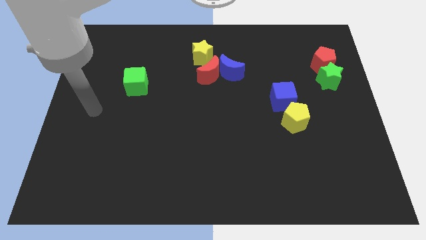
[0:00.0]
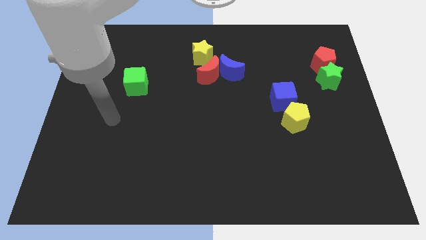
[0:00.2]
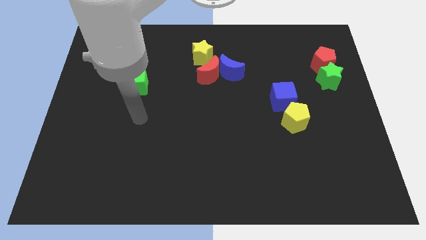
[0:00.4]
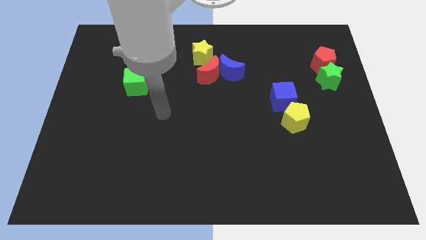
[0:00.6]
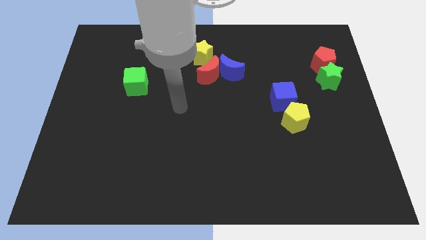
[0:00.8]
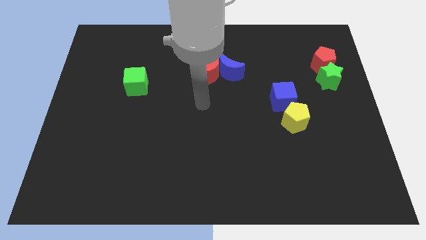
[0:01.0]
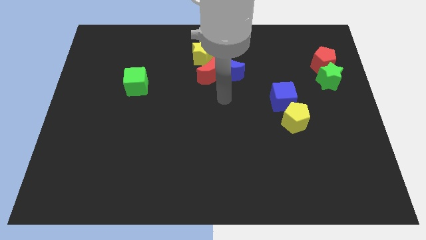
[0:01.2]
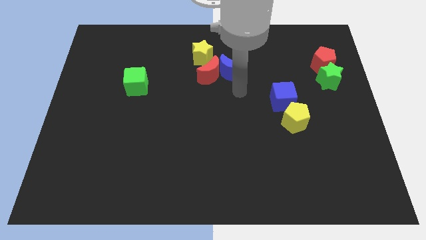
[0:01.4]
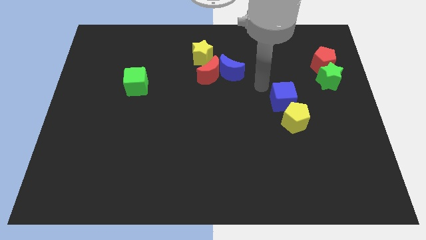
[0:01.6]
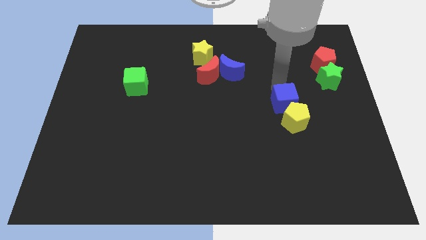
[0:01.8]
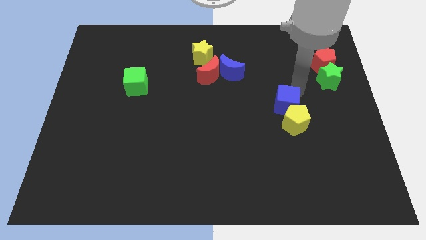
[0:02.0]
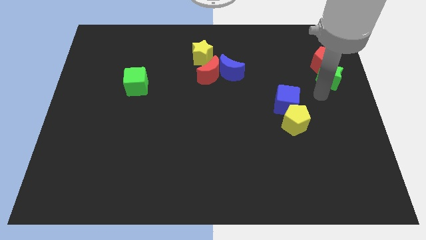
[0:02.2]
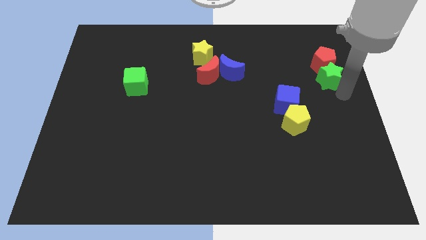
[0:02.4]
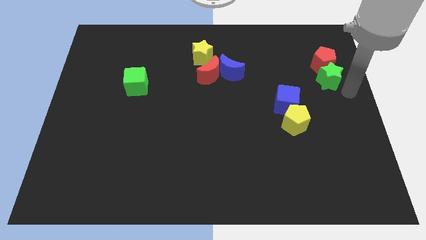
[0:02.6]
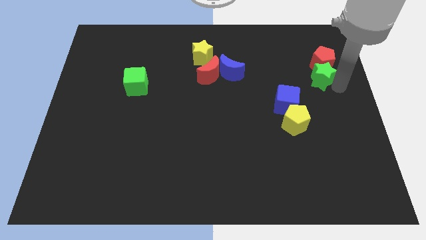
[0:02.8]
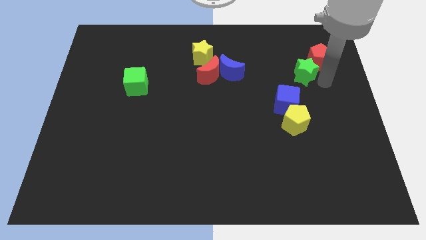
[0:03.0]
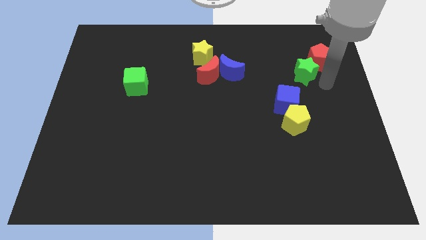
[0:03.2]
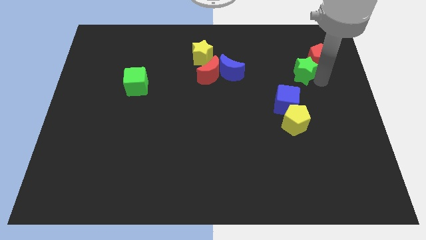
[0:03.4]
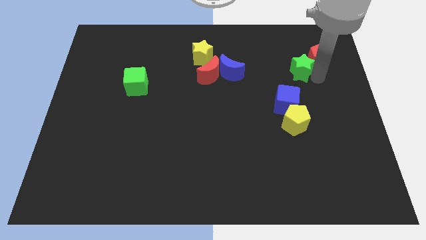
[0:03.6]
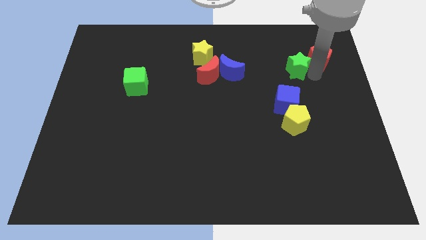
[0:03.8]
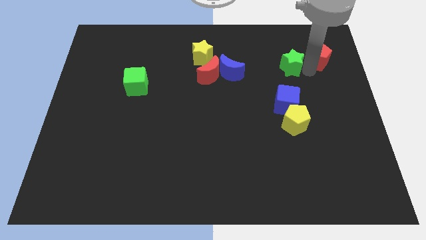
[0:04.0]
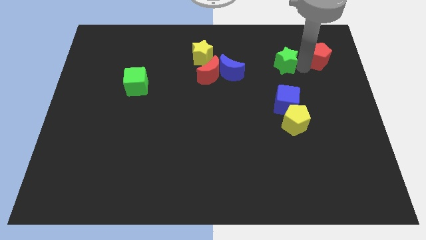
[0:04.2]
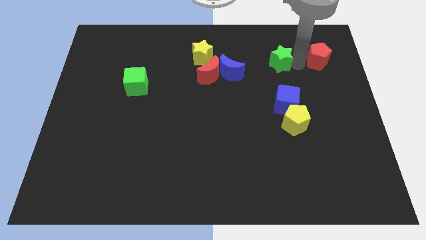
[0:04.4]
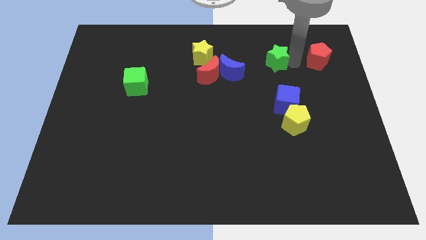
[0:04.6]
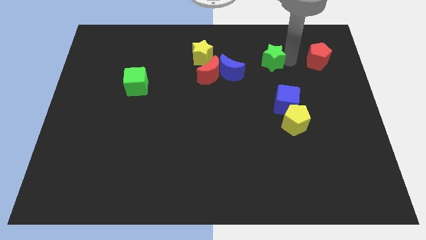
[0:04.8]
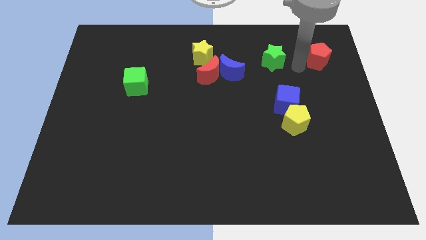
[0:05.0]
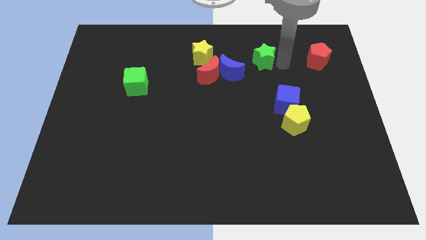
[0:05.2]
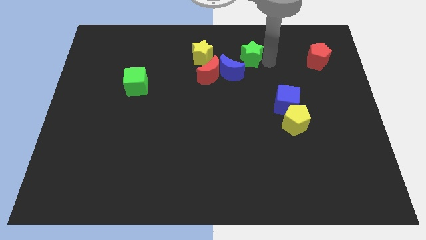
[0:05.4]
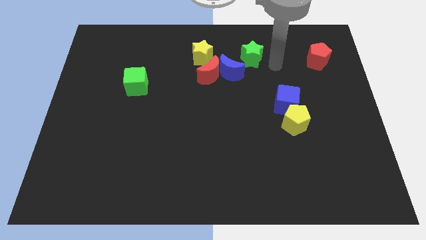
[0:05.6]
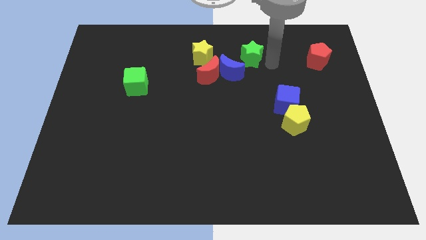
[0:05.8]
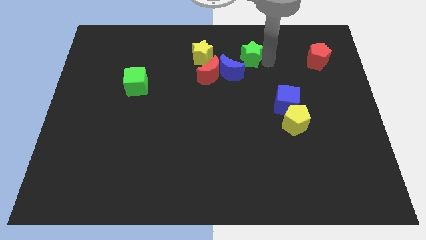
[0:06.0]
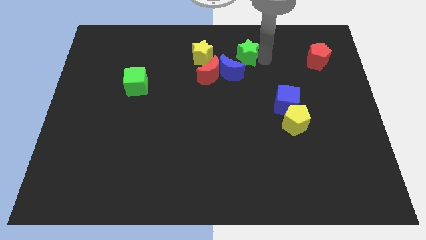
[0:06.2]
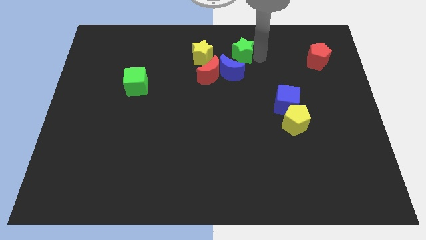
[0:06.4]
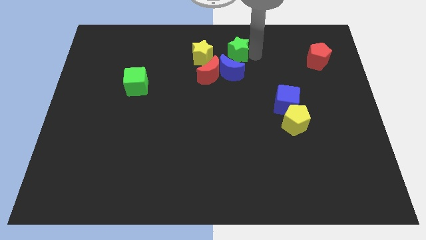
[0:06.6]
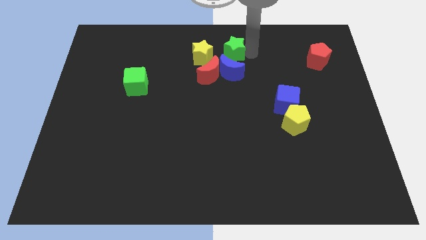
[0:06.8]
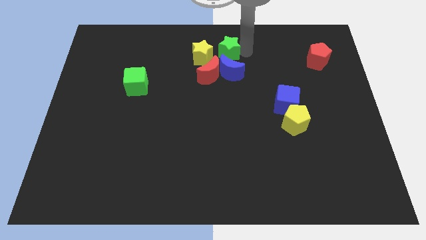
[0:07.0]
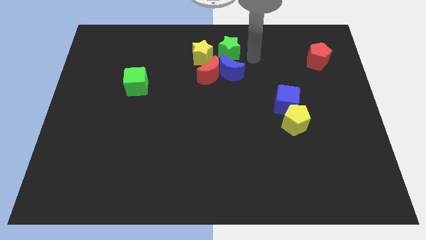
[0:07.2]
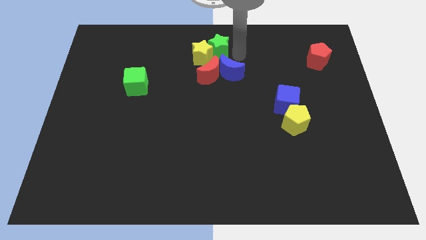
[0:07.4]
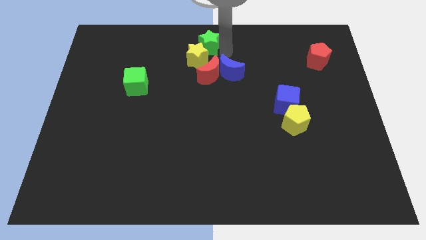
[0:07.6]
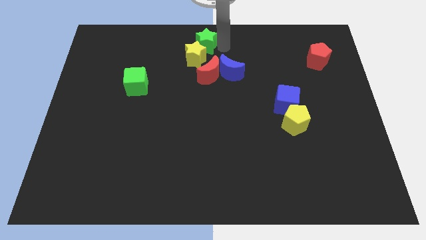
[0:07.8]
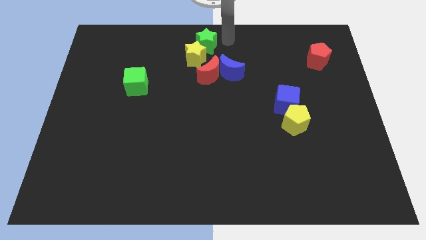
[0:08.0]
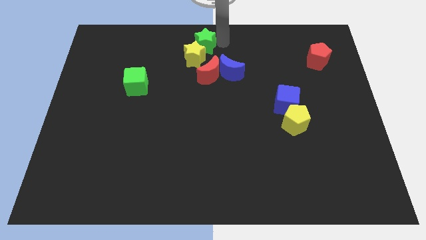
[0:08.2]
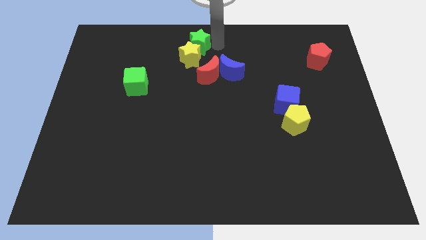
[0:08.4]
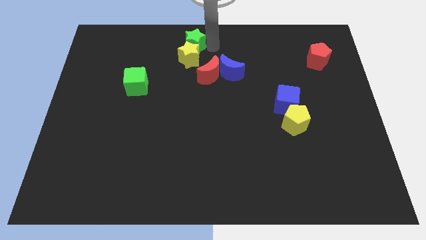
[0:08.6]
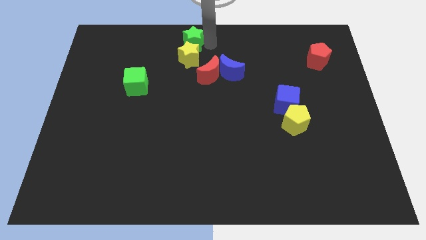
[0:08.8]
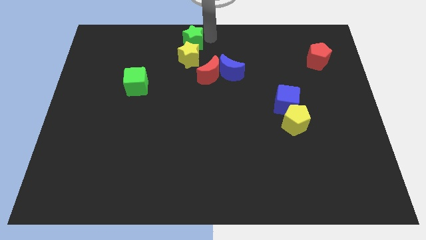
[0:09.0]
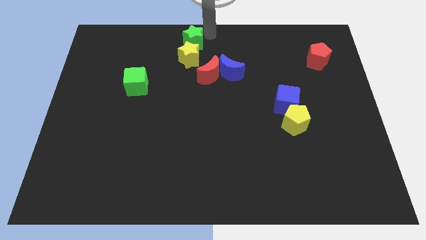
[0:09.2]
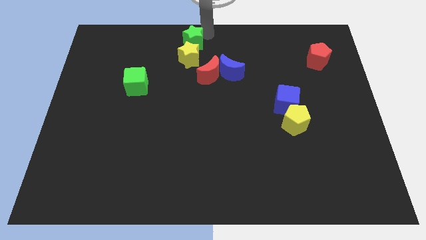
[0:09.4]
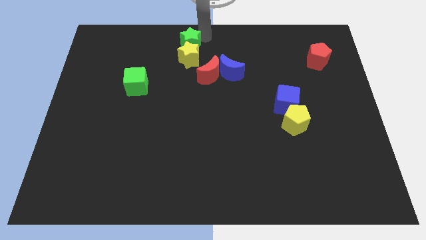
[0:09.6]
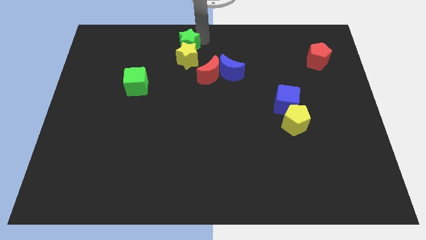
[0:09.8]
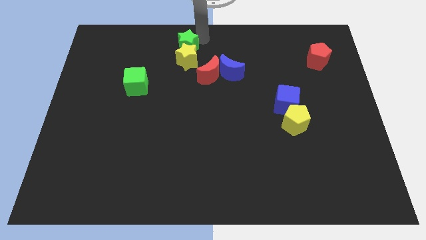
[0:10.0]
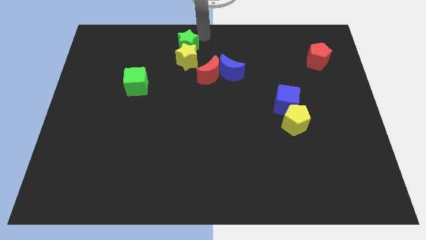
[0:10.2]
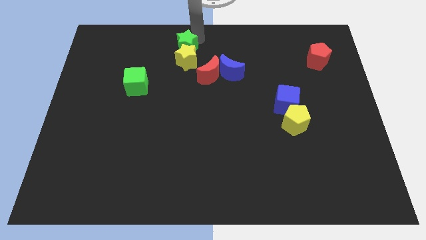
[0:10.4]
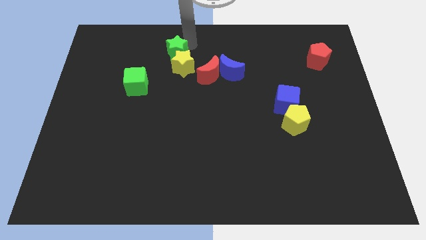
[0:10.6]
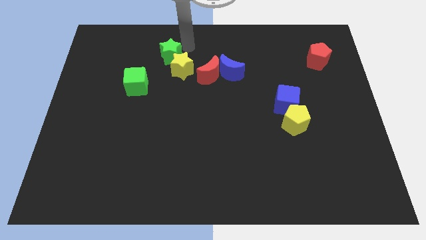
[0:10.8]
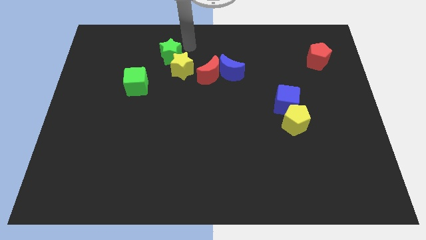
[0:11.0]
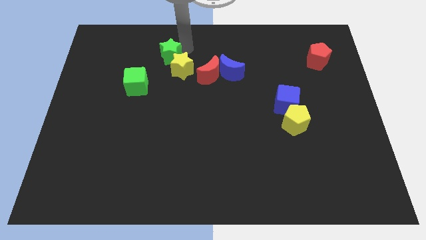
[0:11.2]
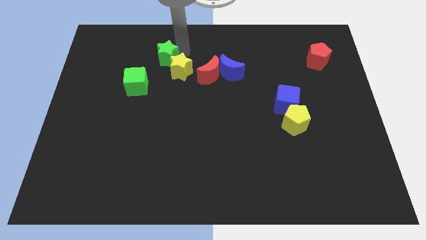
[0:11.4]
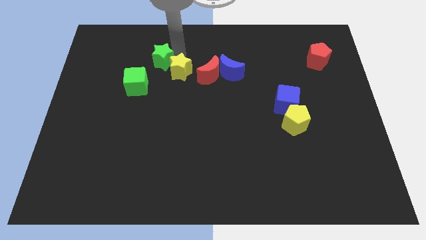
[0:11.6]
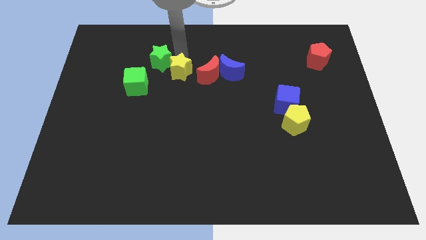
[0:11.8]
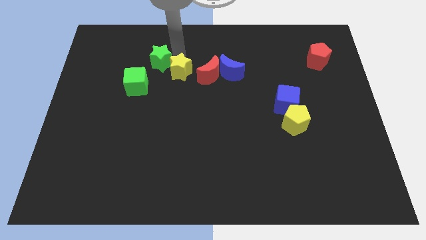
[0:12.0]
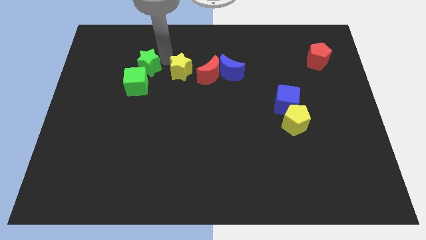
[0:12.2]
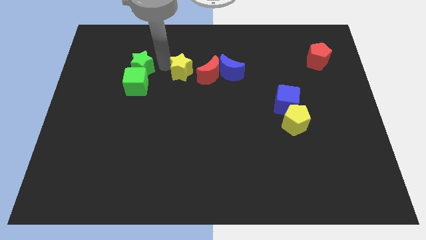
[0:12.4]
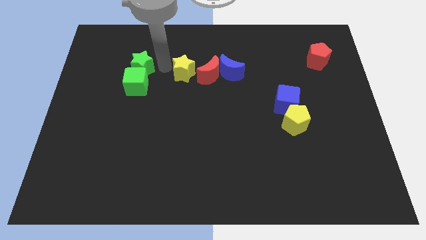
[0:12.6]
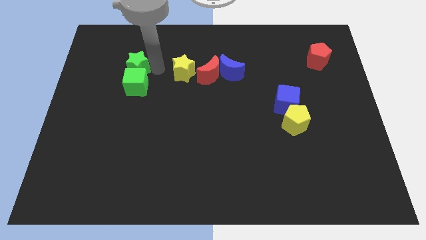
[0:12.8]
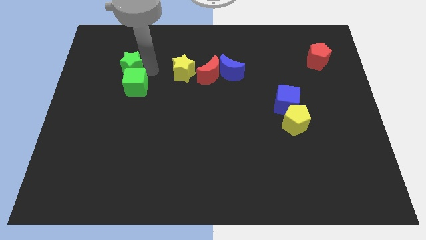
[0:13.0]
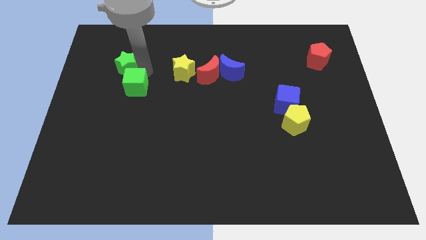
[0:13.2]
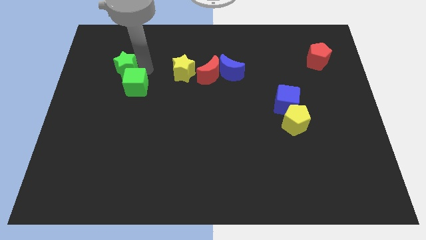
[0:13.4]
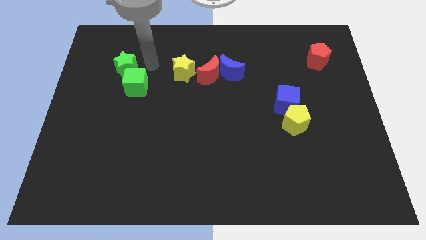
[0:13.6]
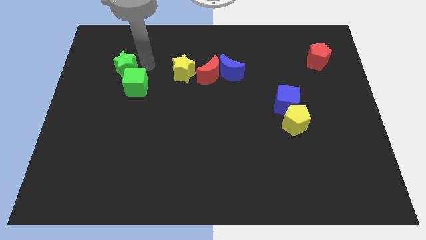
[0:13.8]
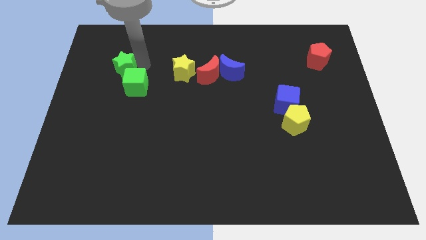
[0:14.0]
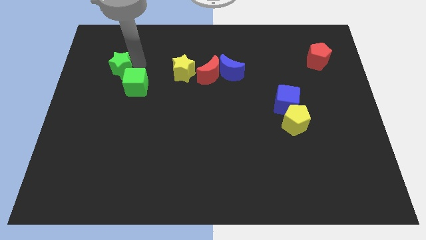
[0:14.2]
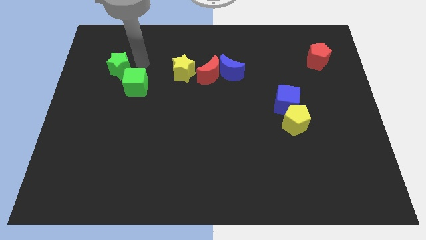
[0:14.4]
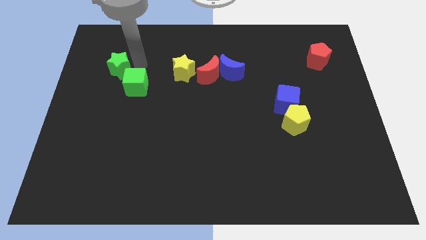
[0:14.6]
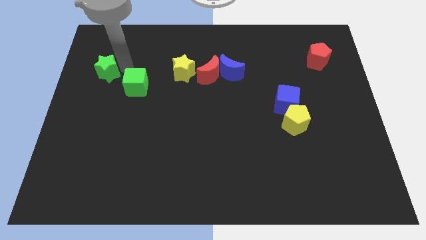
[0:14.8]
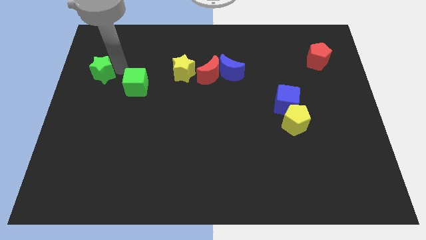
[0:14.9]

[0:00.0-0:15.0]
slide the green star to the left side of the board
